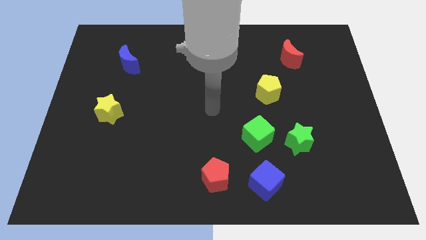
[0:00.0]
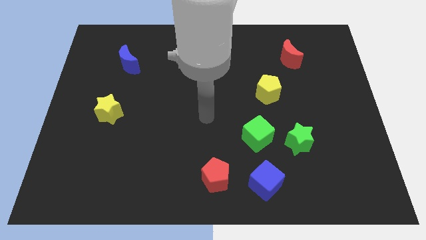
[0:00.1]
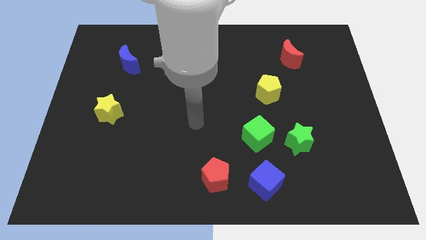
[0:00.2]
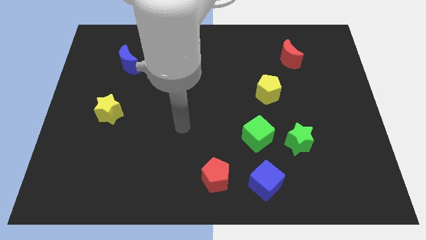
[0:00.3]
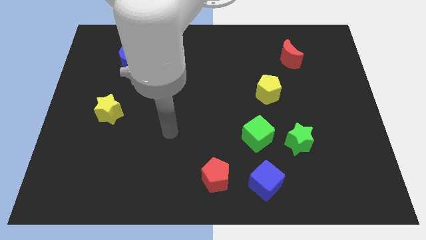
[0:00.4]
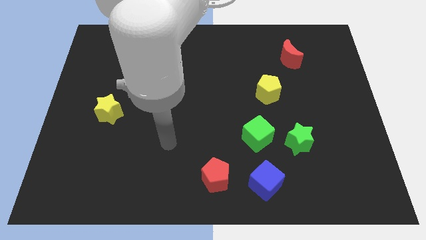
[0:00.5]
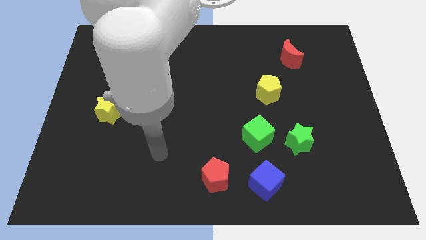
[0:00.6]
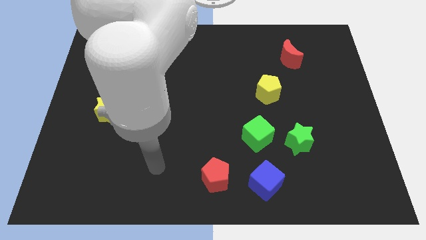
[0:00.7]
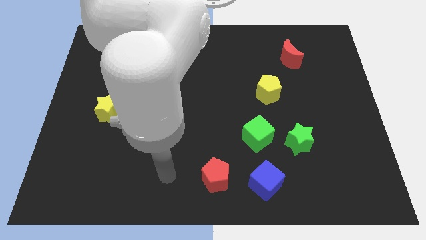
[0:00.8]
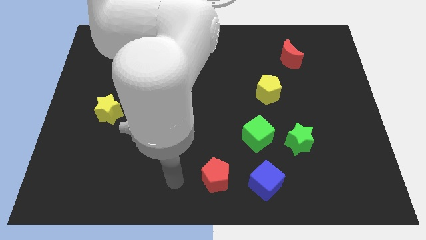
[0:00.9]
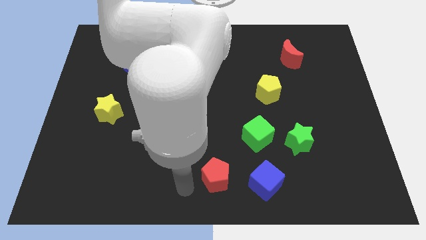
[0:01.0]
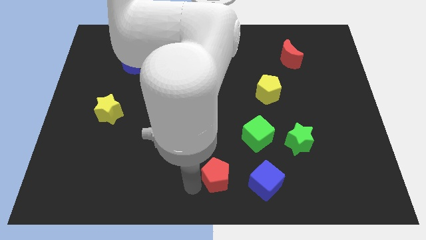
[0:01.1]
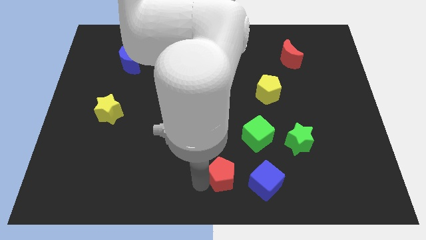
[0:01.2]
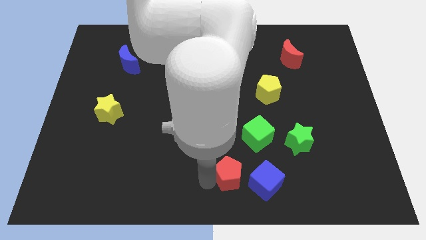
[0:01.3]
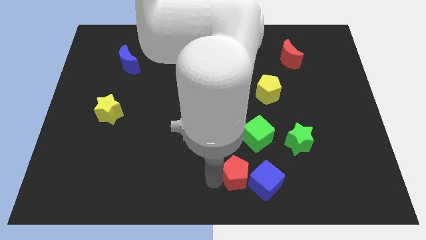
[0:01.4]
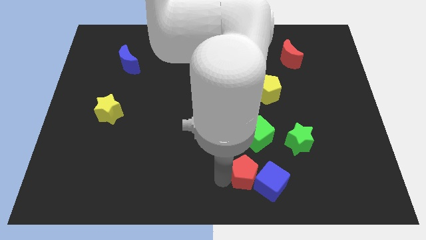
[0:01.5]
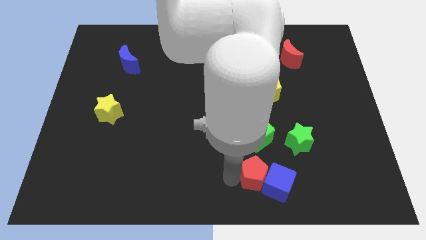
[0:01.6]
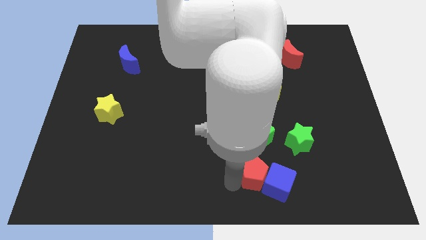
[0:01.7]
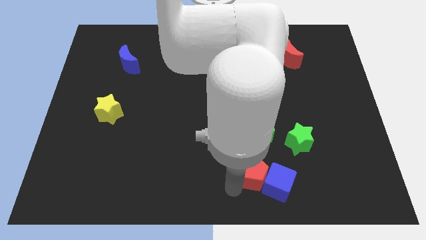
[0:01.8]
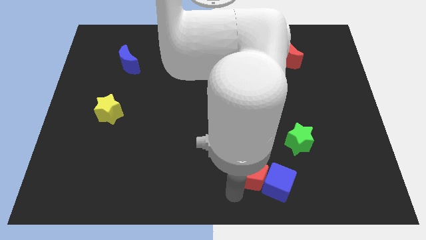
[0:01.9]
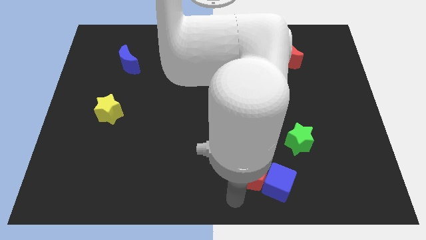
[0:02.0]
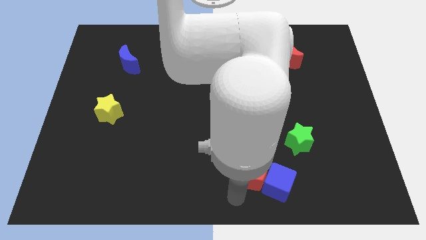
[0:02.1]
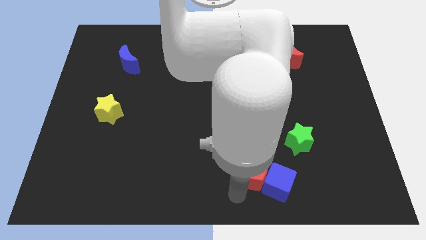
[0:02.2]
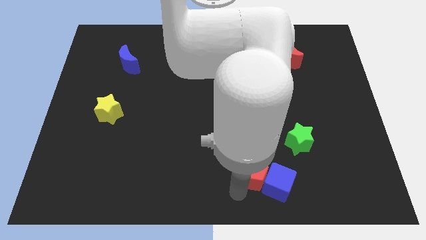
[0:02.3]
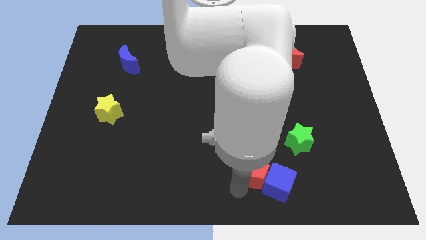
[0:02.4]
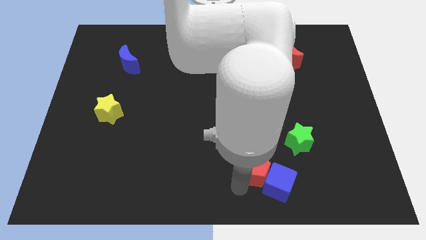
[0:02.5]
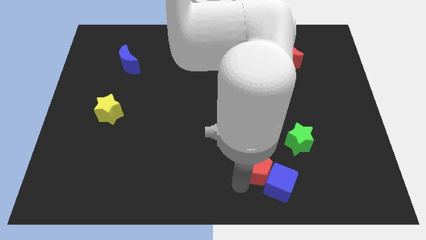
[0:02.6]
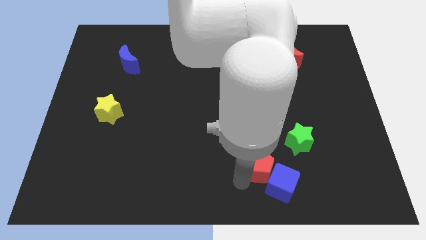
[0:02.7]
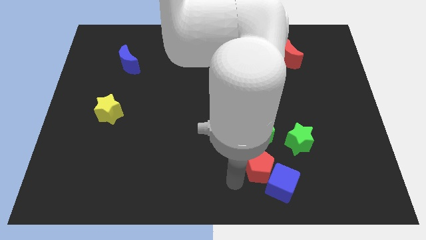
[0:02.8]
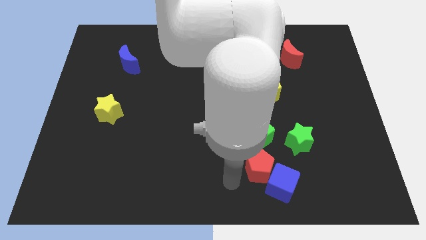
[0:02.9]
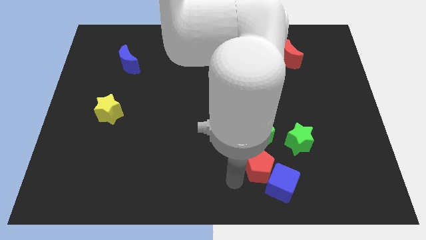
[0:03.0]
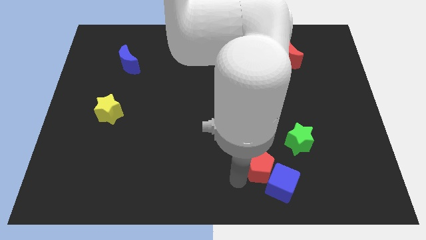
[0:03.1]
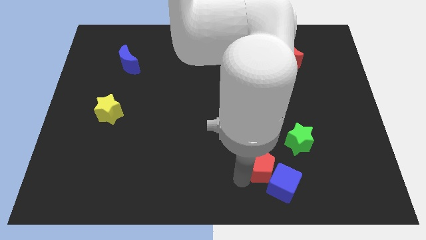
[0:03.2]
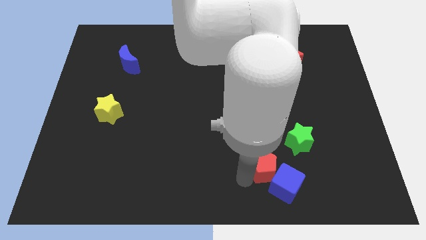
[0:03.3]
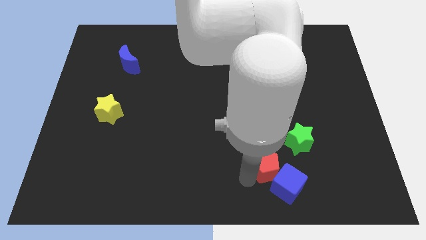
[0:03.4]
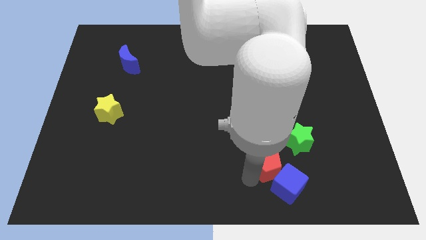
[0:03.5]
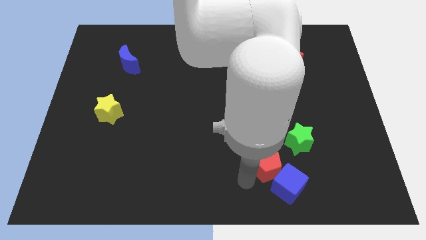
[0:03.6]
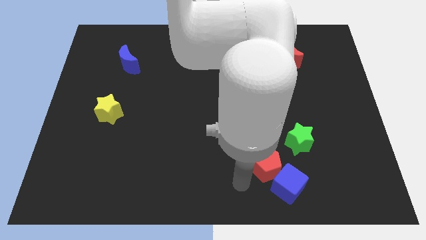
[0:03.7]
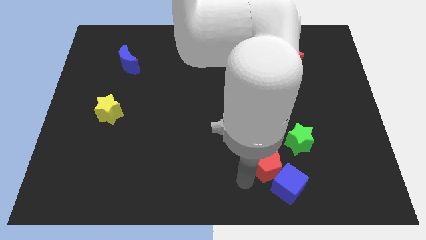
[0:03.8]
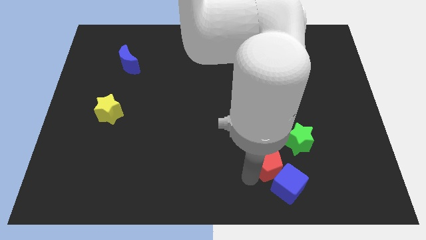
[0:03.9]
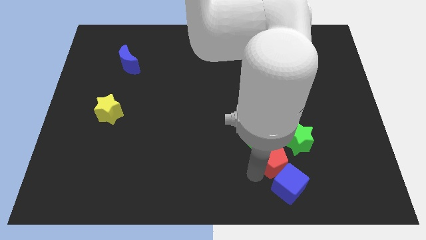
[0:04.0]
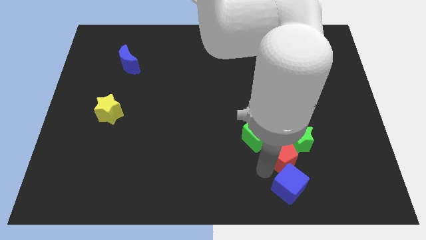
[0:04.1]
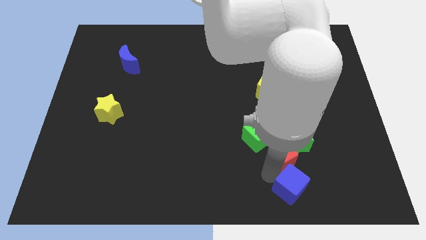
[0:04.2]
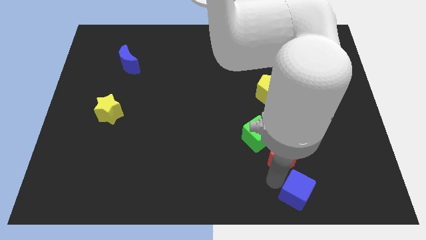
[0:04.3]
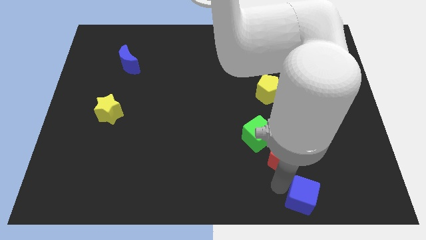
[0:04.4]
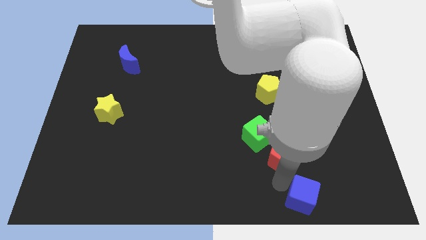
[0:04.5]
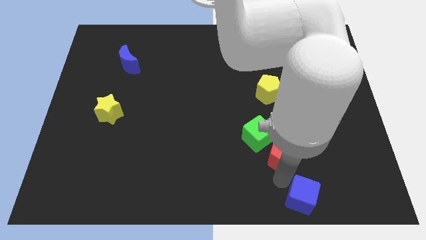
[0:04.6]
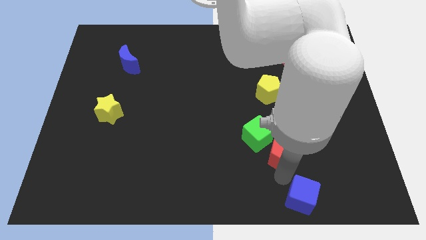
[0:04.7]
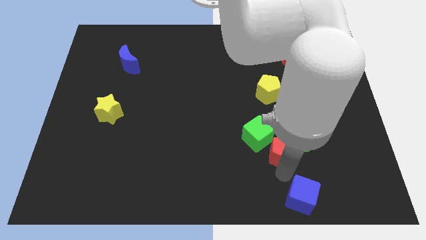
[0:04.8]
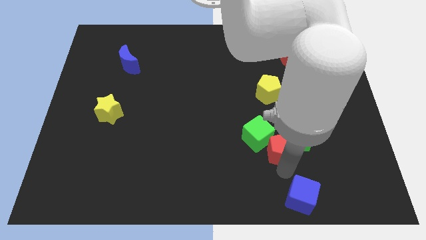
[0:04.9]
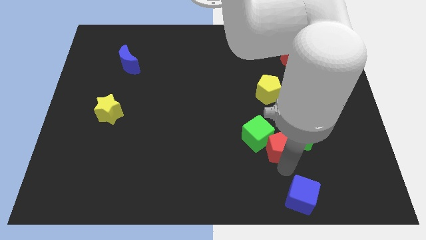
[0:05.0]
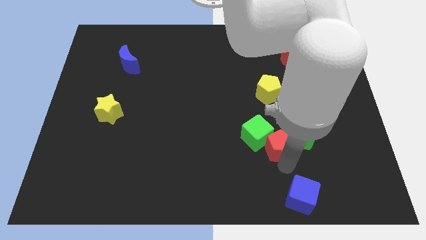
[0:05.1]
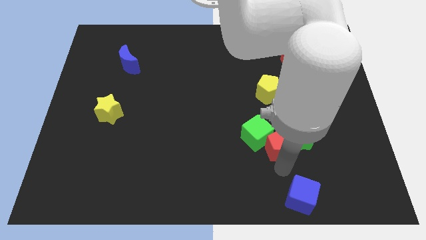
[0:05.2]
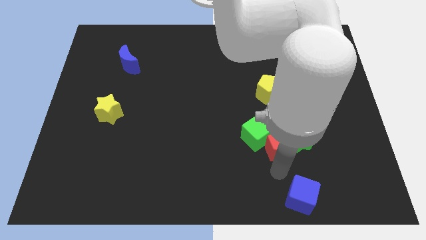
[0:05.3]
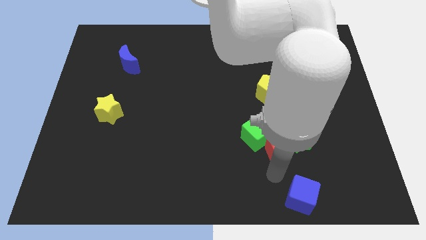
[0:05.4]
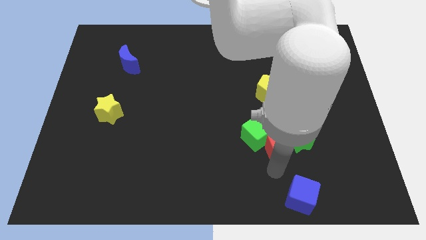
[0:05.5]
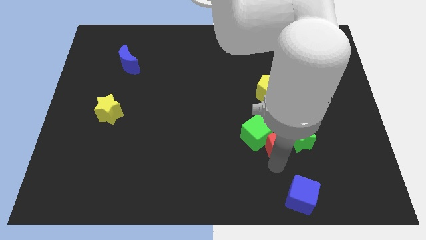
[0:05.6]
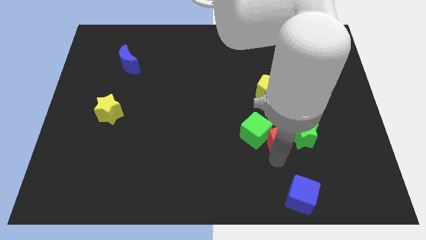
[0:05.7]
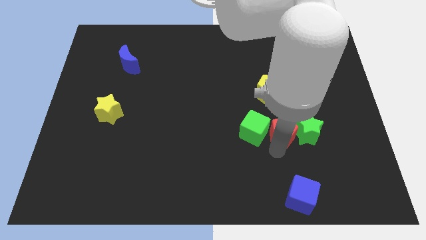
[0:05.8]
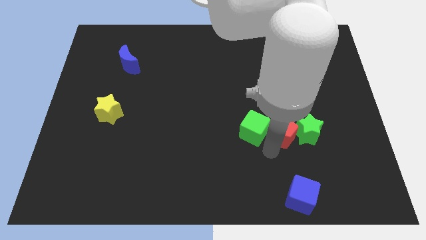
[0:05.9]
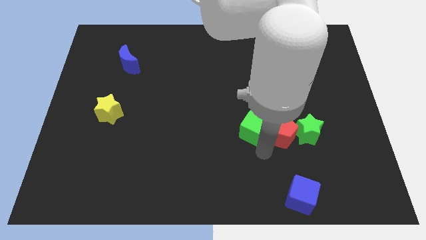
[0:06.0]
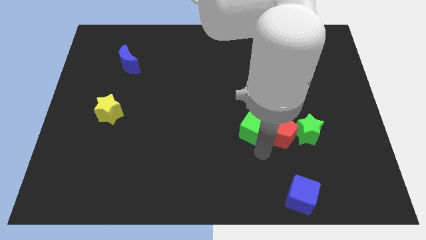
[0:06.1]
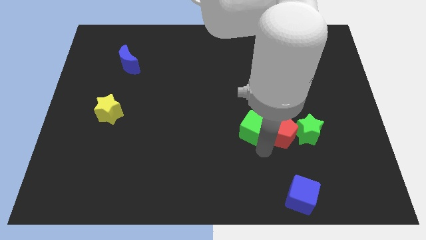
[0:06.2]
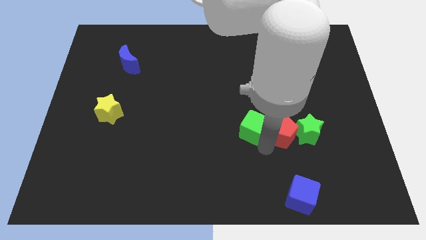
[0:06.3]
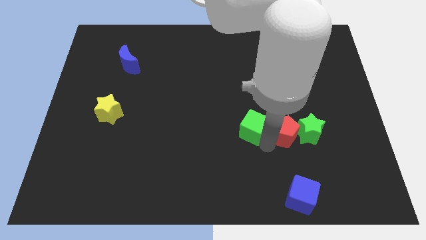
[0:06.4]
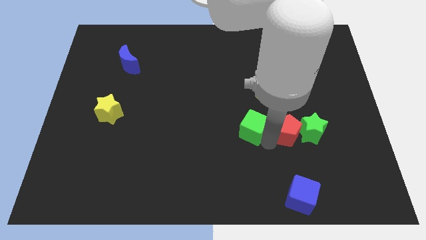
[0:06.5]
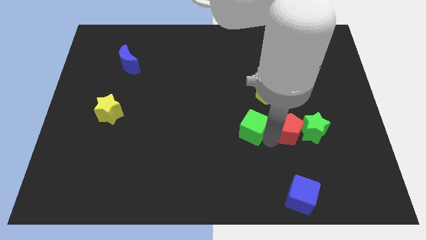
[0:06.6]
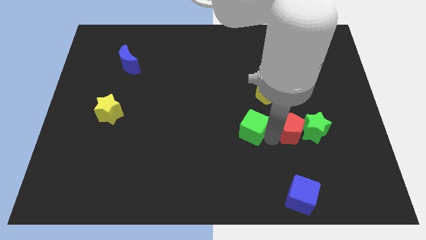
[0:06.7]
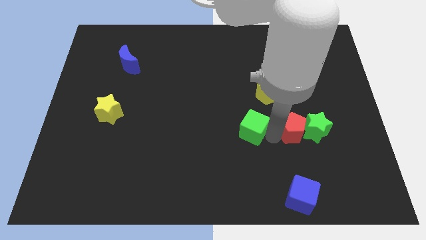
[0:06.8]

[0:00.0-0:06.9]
move the red pentagon upwards and right diagonally

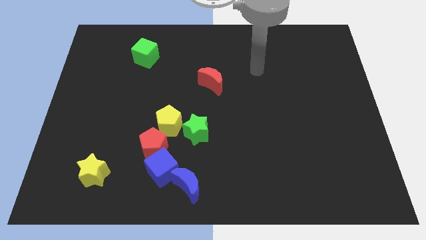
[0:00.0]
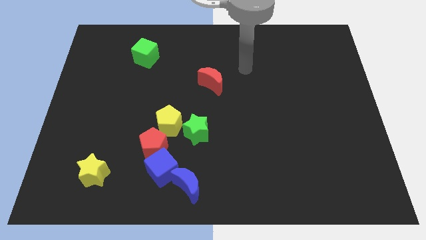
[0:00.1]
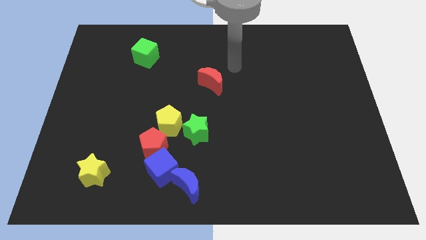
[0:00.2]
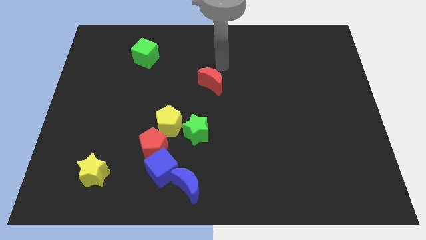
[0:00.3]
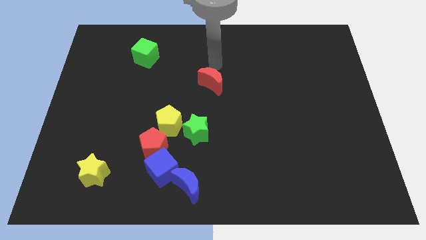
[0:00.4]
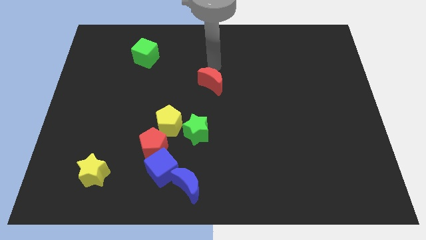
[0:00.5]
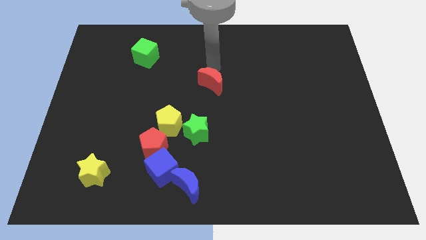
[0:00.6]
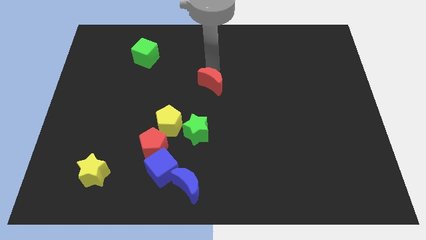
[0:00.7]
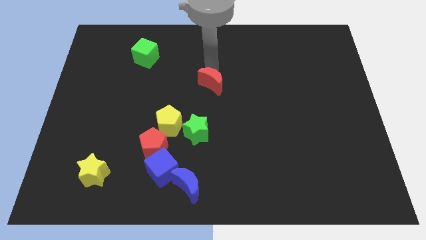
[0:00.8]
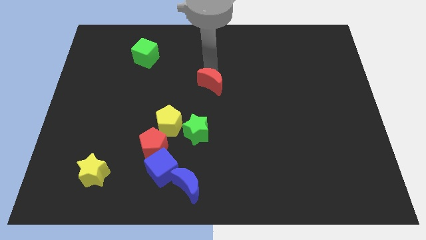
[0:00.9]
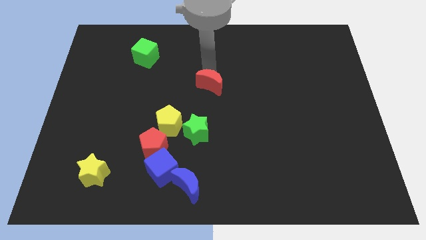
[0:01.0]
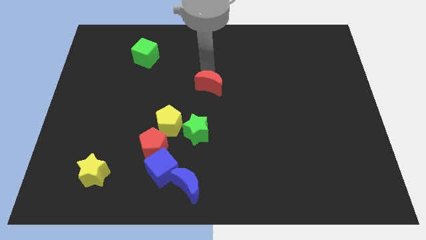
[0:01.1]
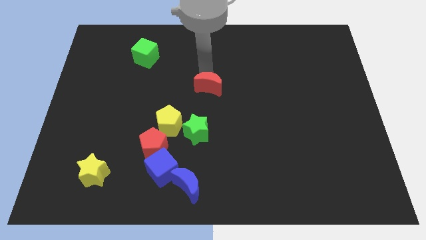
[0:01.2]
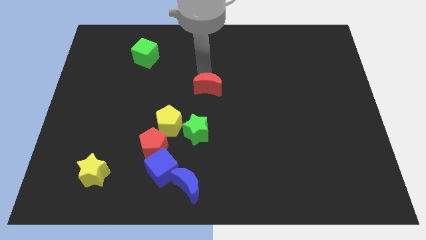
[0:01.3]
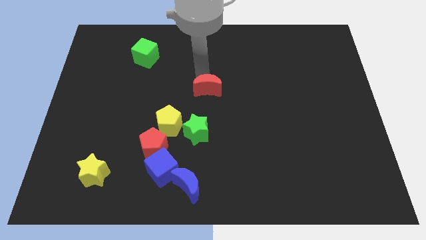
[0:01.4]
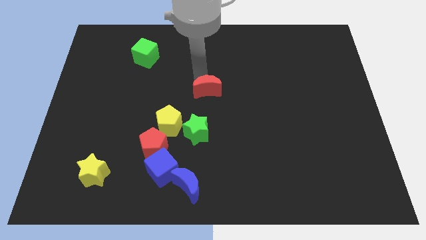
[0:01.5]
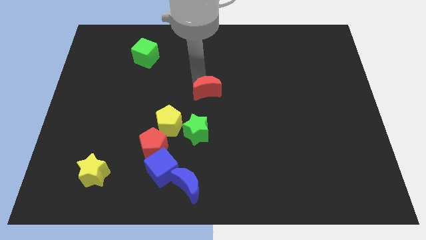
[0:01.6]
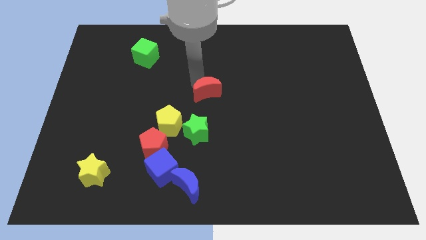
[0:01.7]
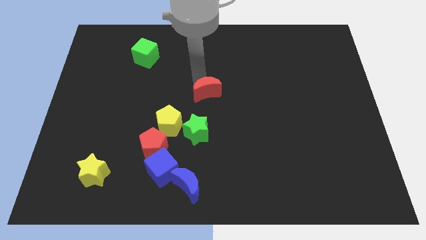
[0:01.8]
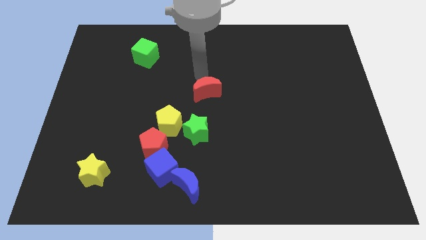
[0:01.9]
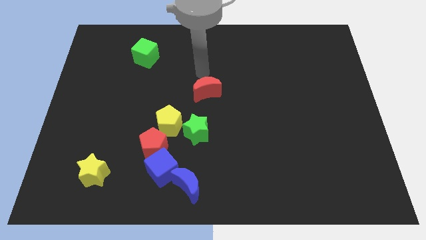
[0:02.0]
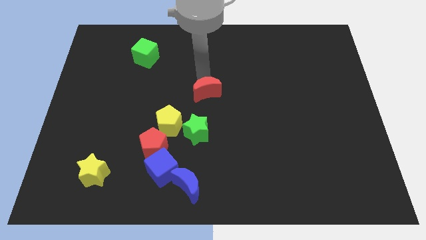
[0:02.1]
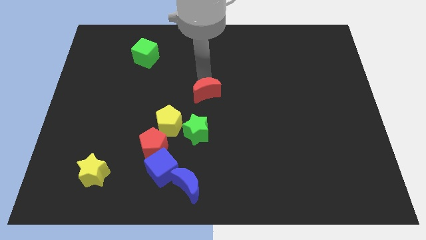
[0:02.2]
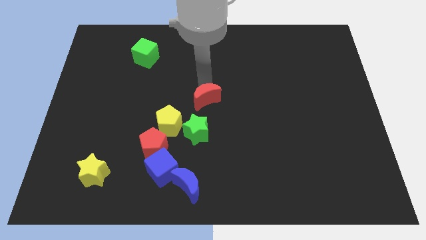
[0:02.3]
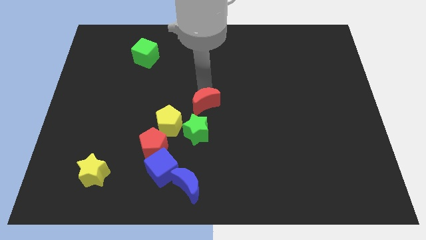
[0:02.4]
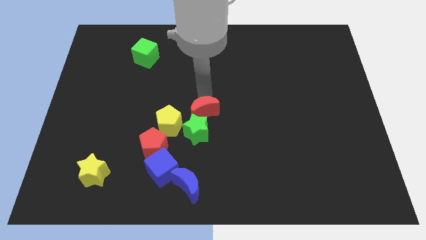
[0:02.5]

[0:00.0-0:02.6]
push the red moon down a little
